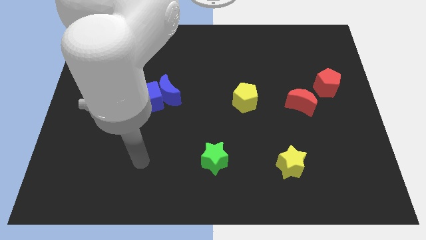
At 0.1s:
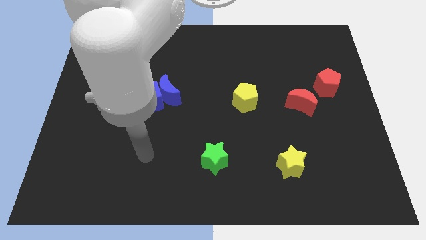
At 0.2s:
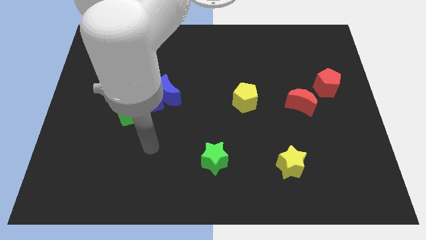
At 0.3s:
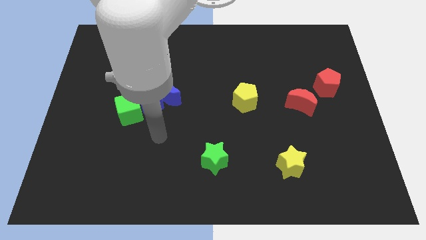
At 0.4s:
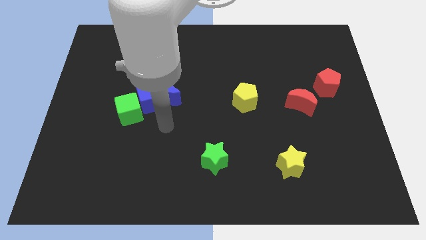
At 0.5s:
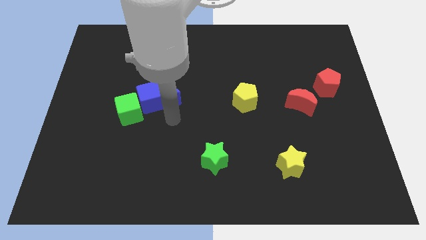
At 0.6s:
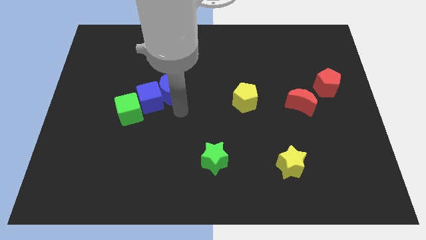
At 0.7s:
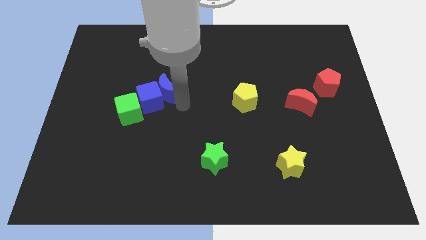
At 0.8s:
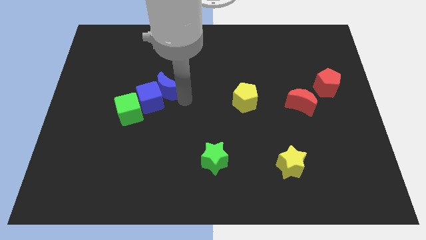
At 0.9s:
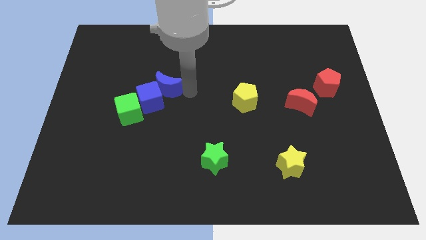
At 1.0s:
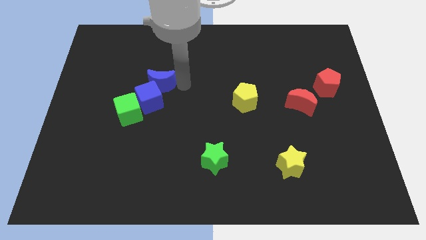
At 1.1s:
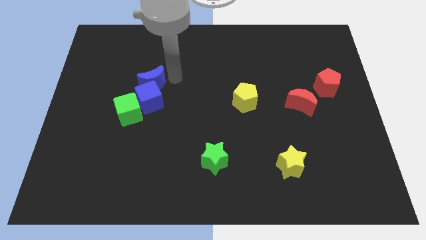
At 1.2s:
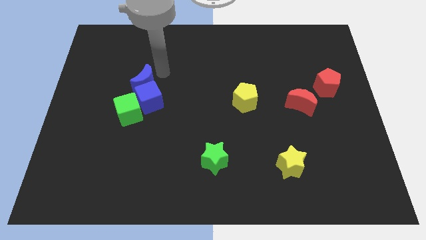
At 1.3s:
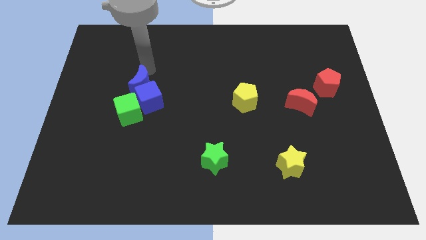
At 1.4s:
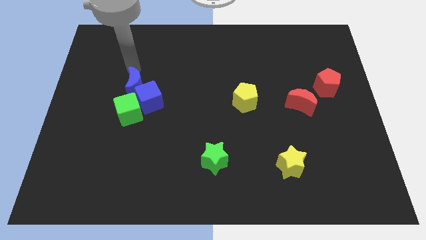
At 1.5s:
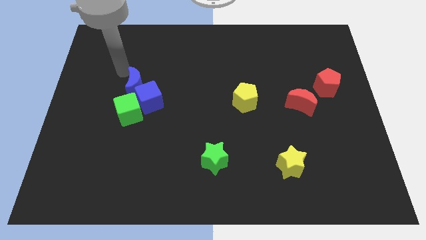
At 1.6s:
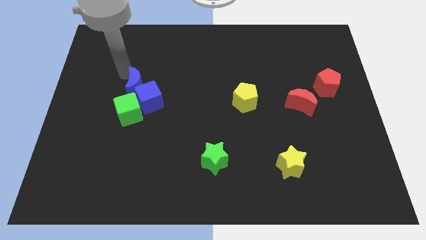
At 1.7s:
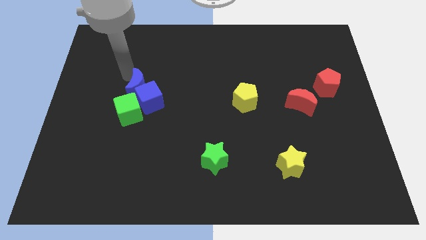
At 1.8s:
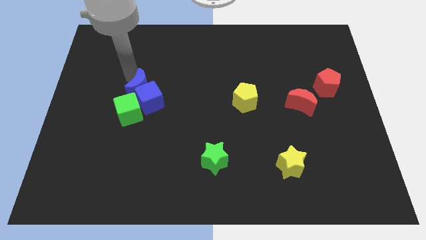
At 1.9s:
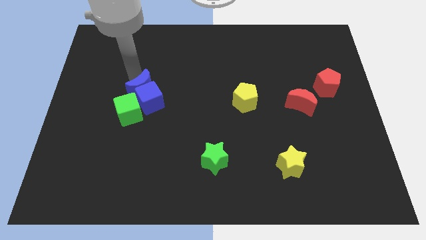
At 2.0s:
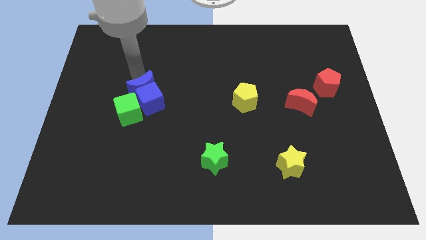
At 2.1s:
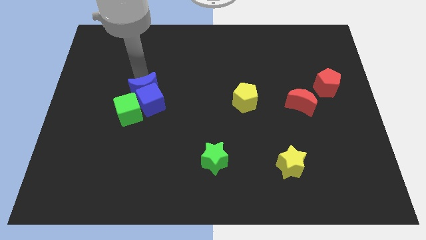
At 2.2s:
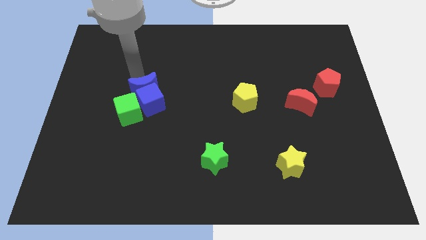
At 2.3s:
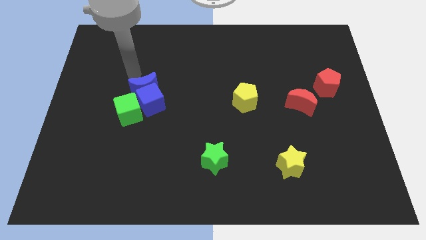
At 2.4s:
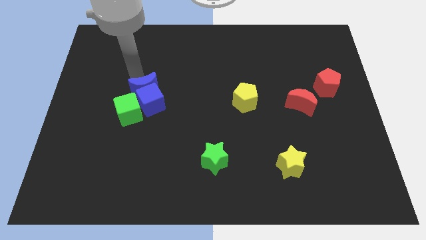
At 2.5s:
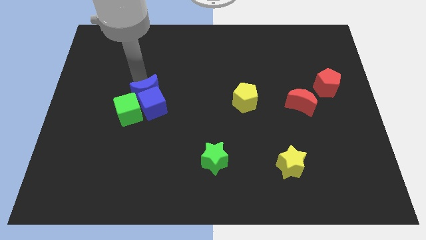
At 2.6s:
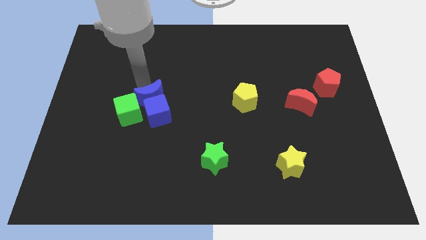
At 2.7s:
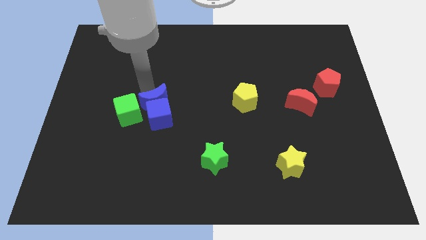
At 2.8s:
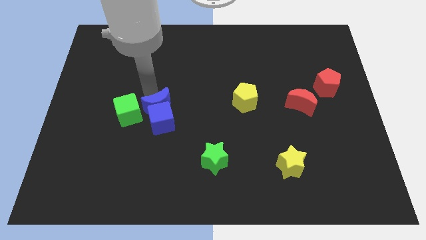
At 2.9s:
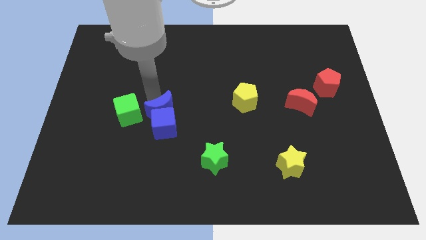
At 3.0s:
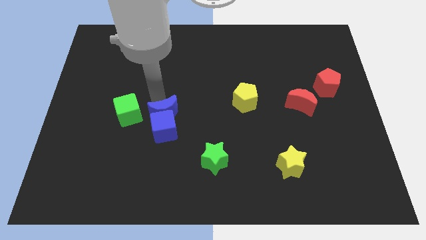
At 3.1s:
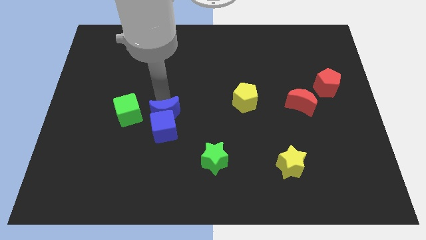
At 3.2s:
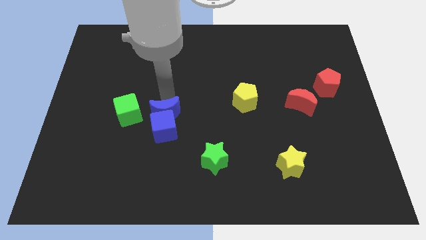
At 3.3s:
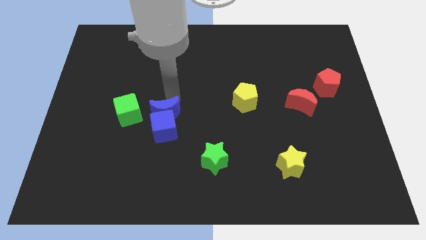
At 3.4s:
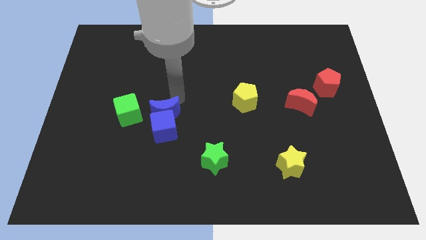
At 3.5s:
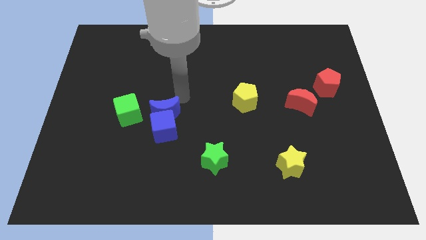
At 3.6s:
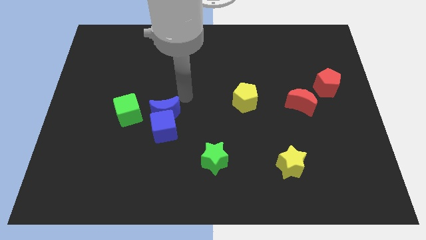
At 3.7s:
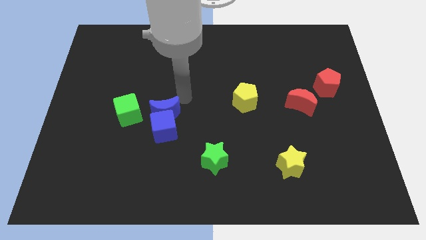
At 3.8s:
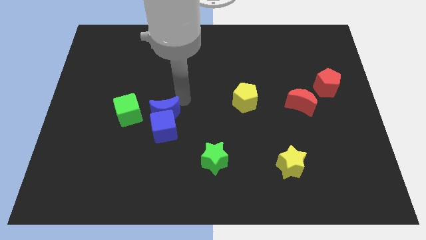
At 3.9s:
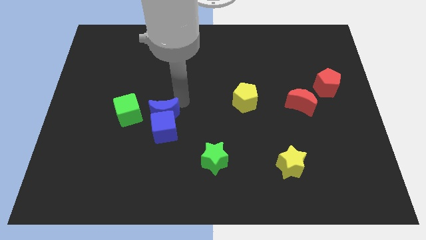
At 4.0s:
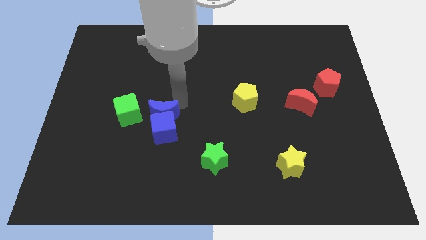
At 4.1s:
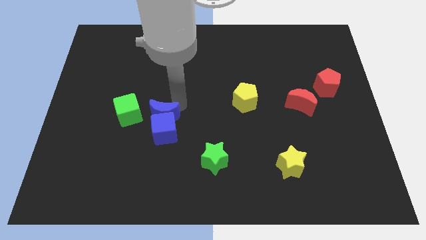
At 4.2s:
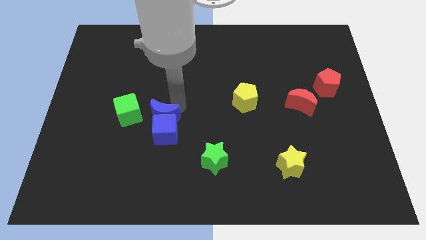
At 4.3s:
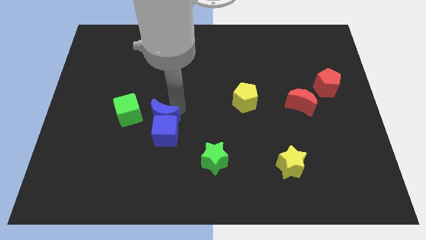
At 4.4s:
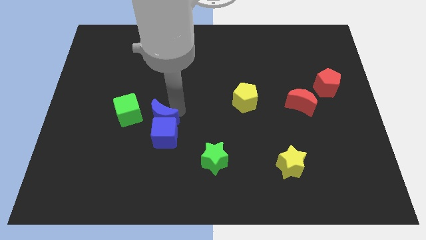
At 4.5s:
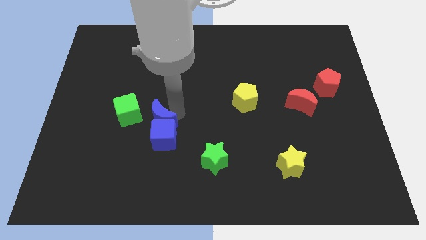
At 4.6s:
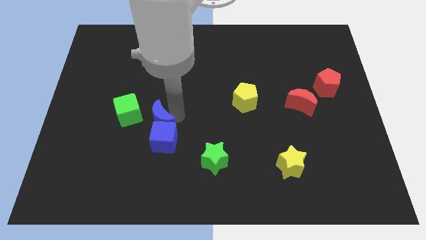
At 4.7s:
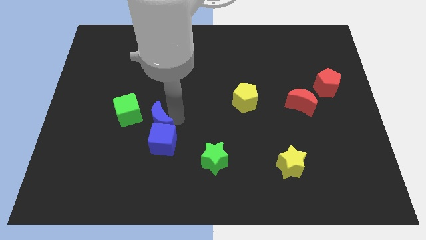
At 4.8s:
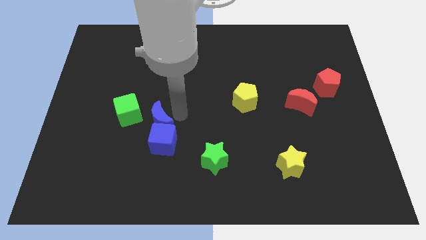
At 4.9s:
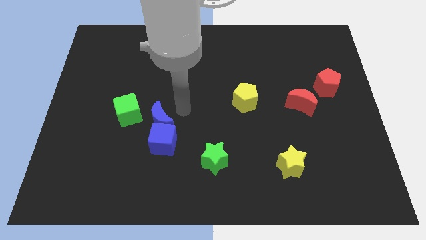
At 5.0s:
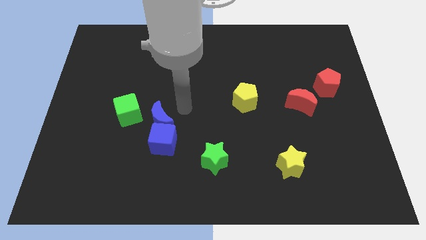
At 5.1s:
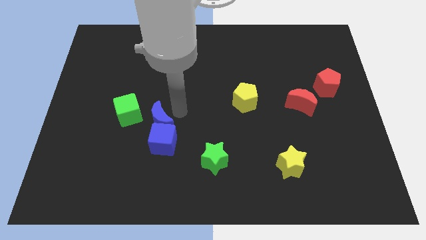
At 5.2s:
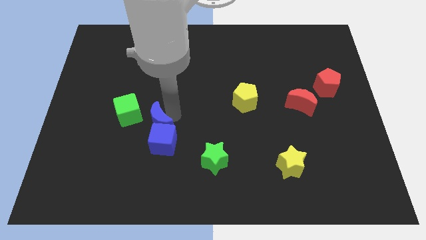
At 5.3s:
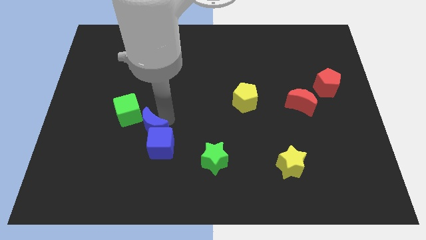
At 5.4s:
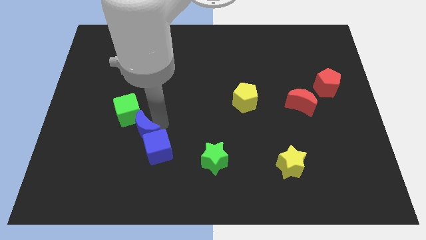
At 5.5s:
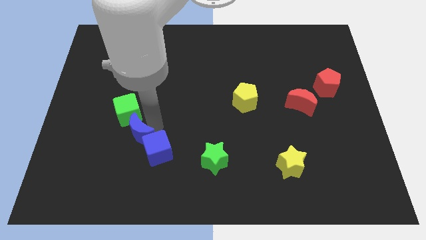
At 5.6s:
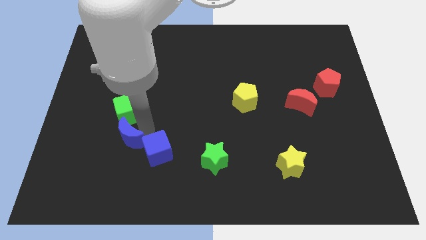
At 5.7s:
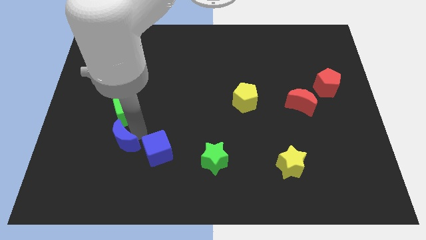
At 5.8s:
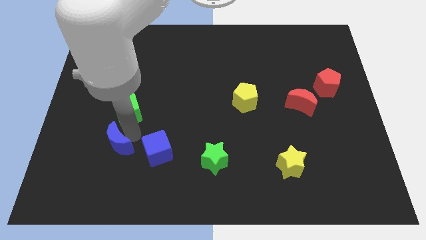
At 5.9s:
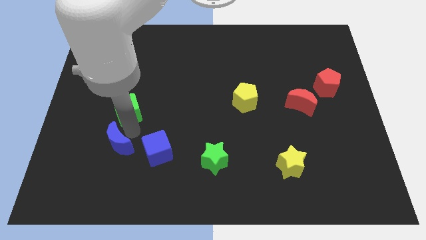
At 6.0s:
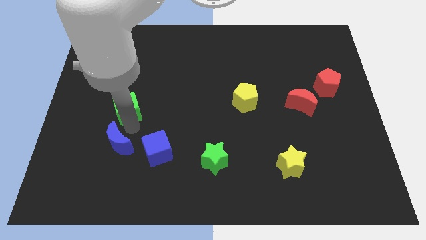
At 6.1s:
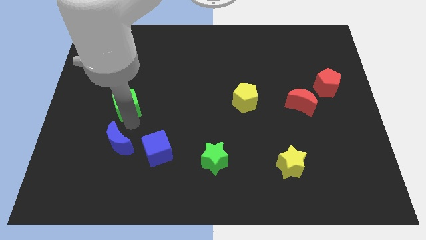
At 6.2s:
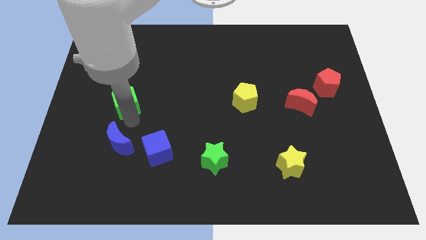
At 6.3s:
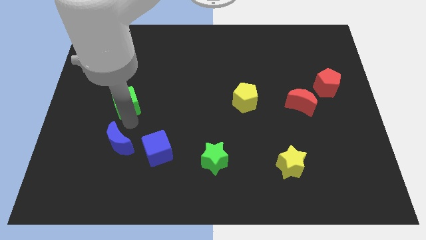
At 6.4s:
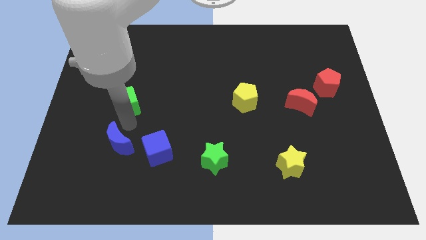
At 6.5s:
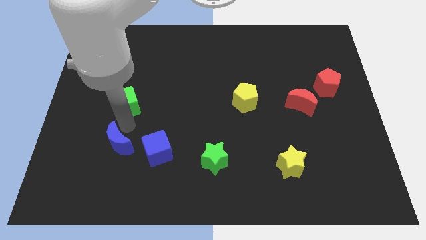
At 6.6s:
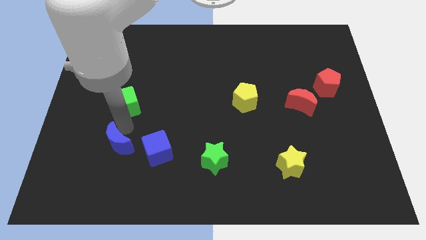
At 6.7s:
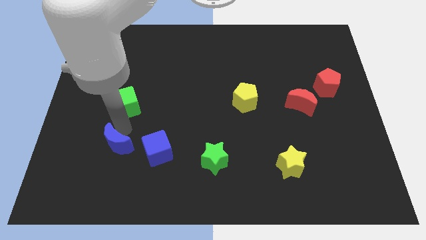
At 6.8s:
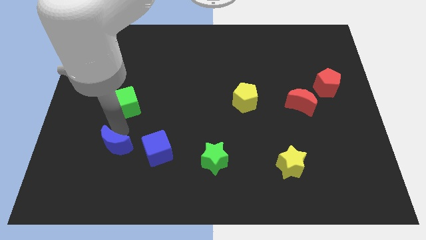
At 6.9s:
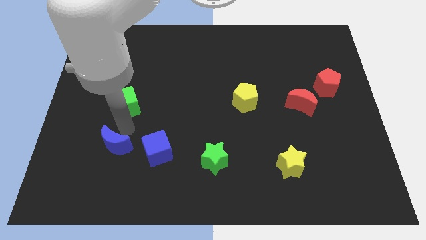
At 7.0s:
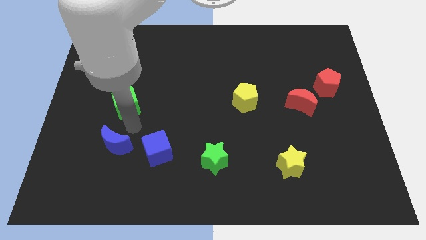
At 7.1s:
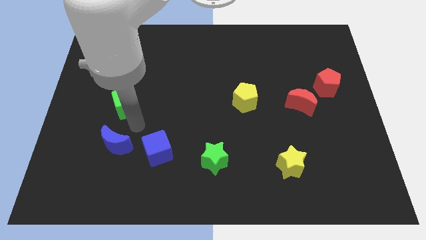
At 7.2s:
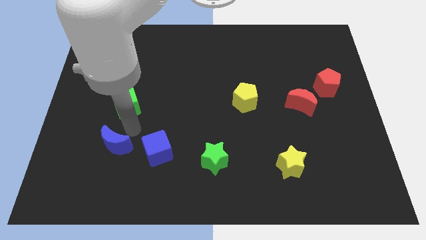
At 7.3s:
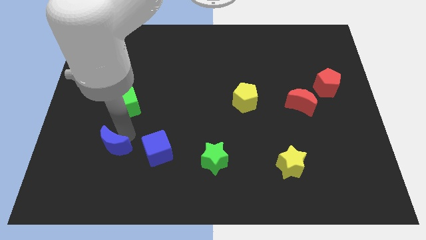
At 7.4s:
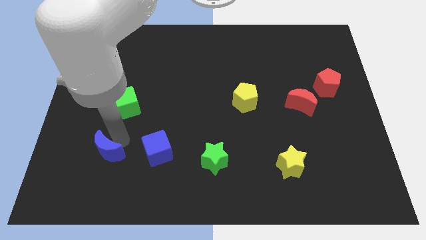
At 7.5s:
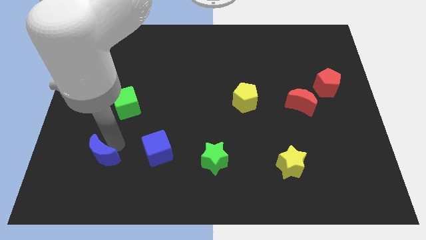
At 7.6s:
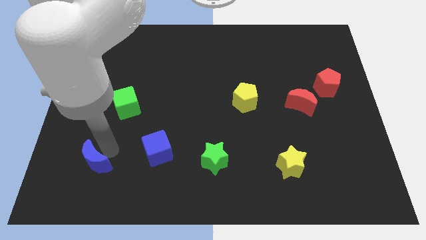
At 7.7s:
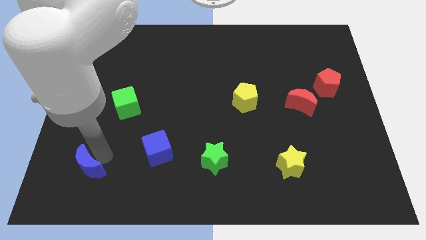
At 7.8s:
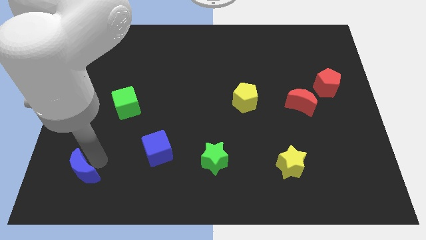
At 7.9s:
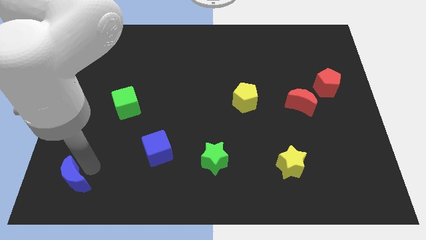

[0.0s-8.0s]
move the blue moon to the bottom left
